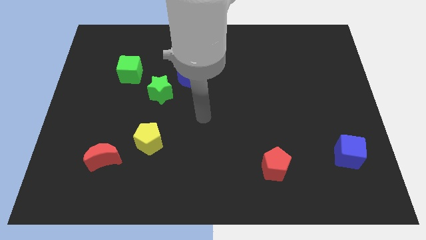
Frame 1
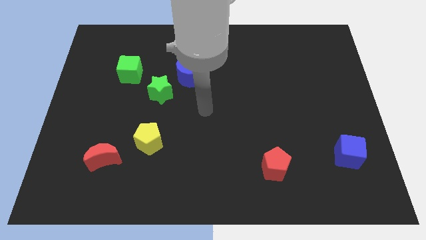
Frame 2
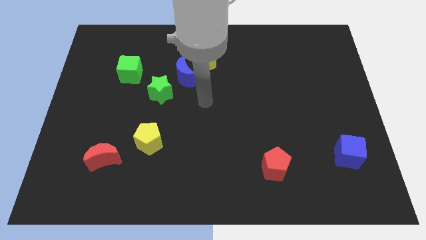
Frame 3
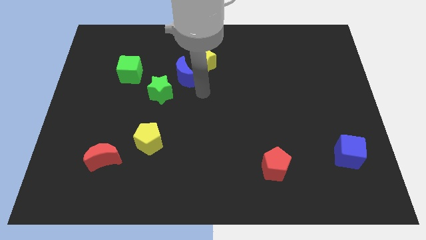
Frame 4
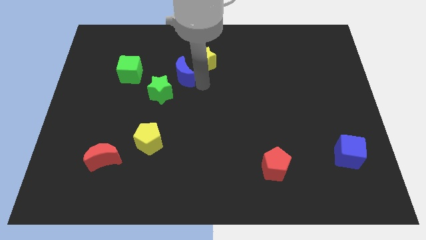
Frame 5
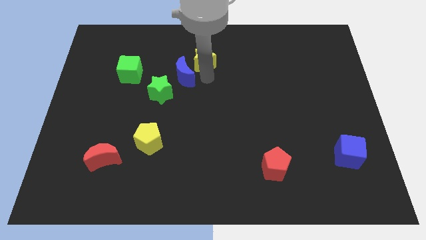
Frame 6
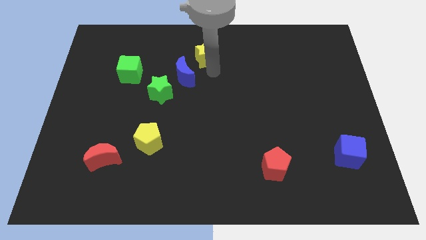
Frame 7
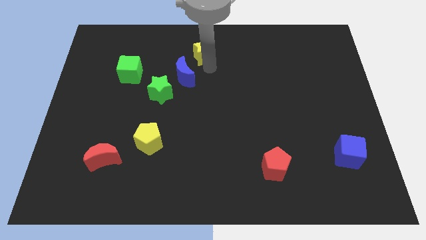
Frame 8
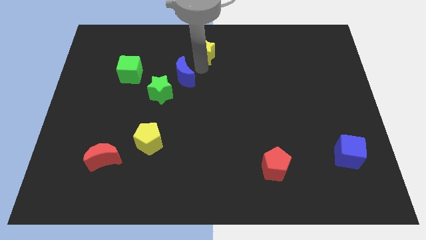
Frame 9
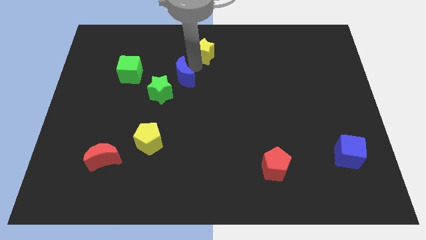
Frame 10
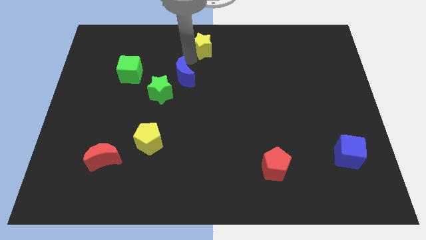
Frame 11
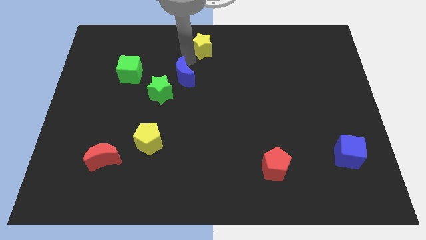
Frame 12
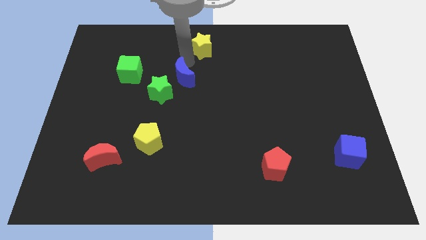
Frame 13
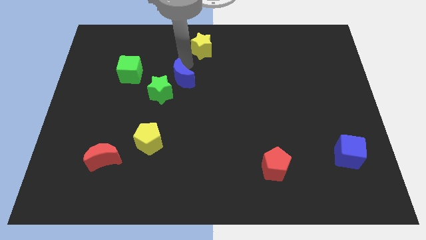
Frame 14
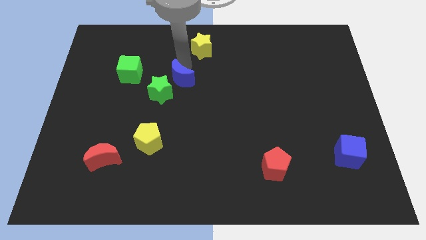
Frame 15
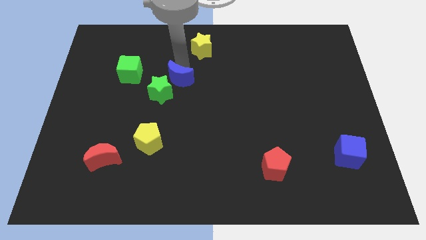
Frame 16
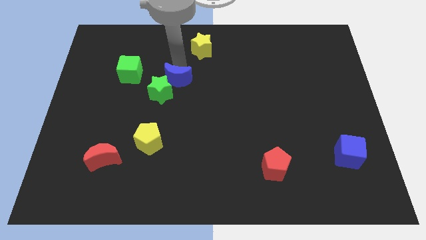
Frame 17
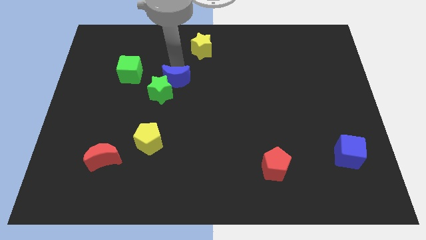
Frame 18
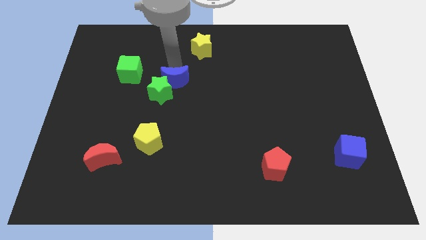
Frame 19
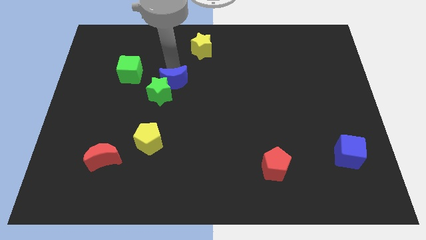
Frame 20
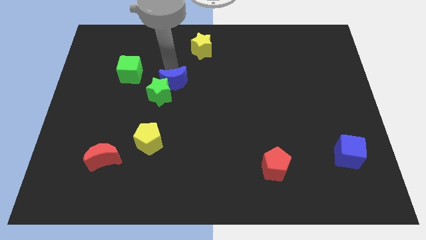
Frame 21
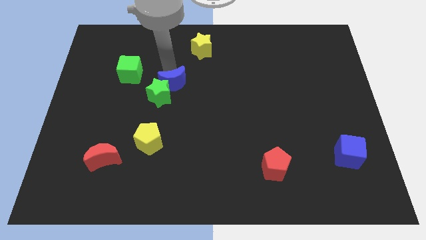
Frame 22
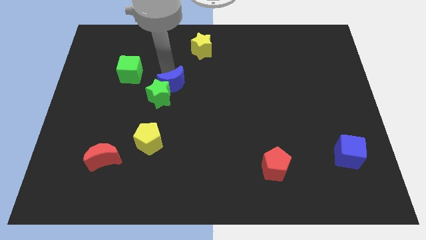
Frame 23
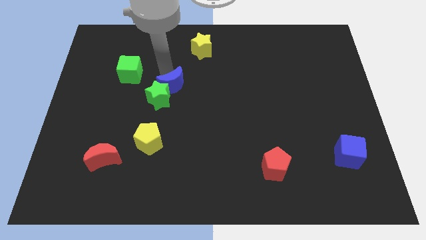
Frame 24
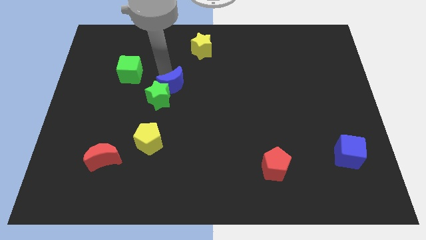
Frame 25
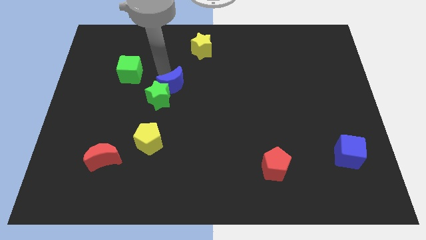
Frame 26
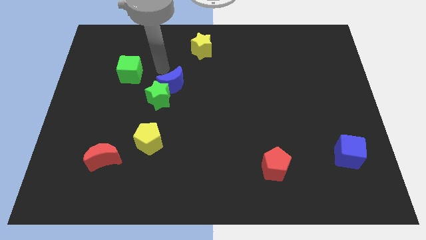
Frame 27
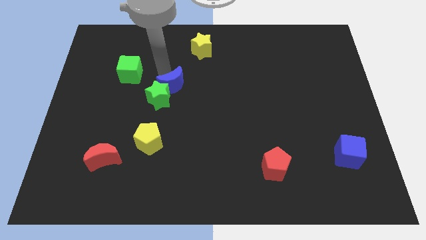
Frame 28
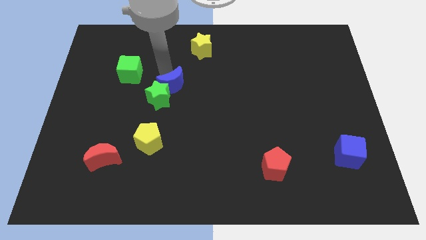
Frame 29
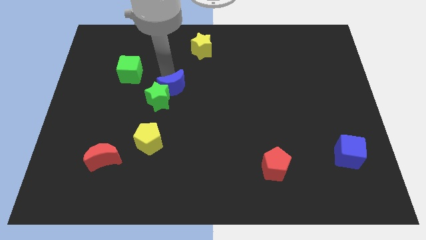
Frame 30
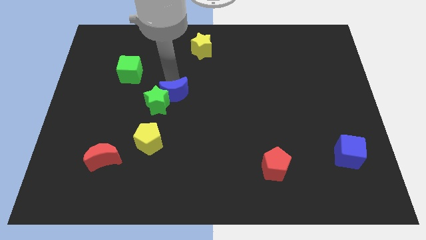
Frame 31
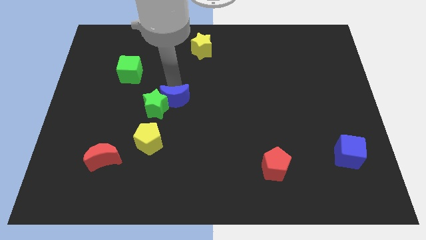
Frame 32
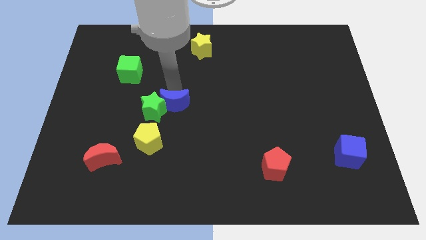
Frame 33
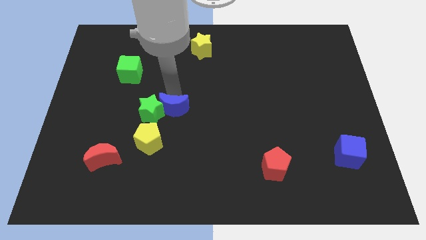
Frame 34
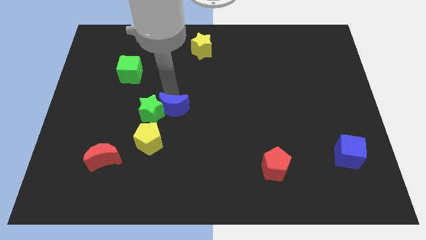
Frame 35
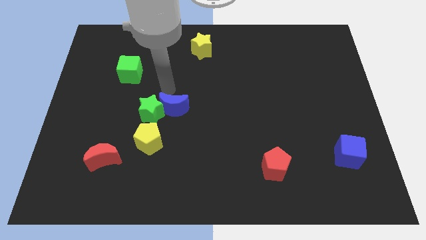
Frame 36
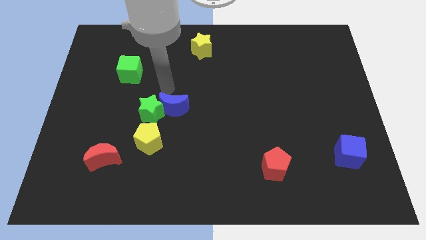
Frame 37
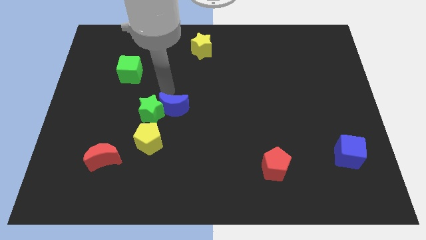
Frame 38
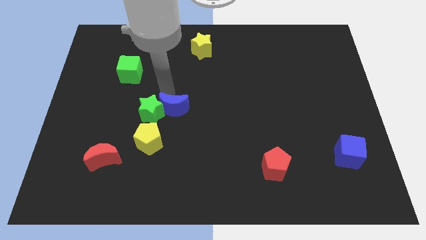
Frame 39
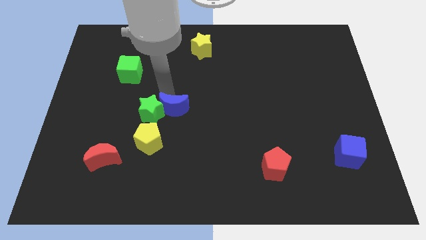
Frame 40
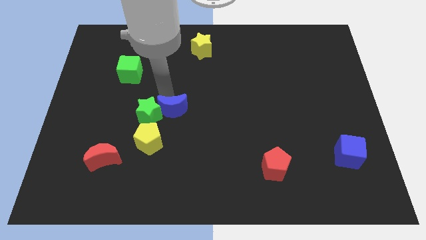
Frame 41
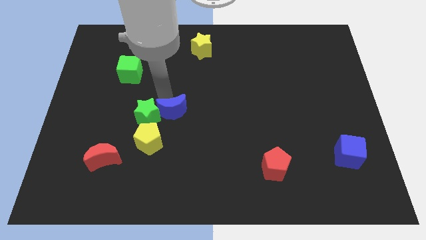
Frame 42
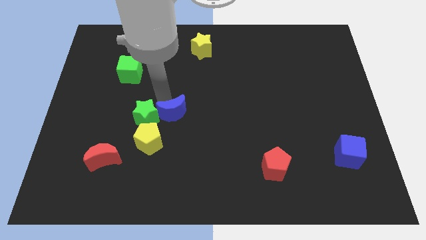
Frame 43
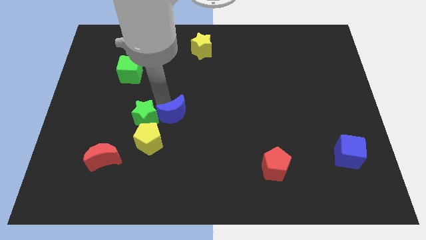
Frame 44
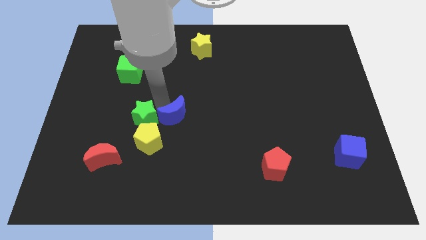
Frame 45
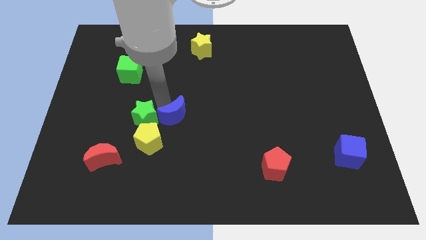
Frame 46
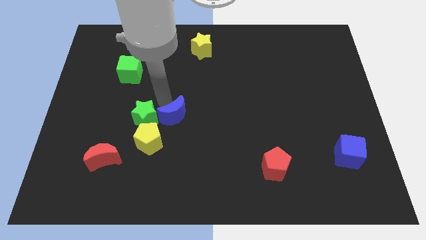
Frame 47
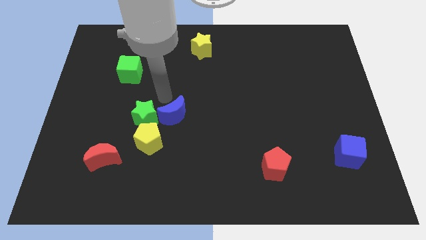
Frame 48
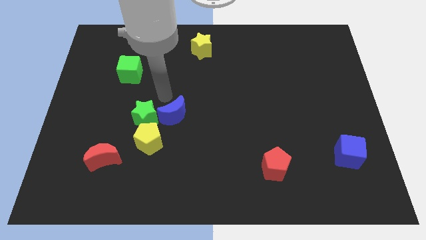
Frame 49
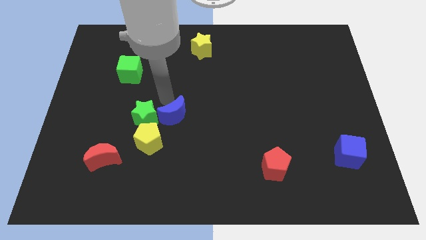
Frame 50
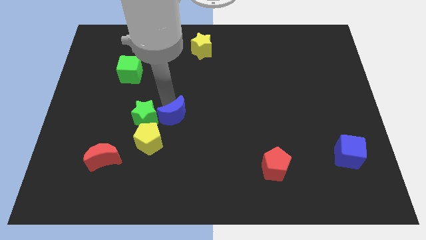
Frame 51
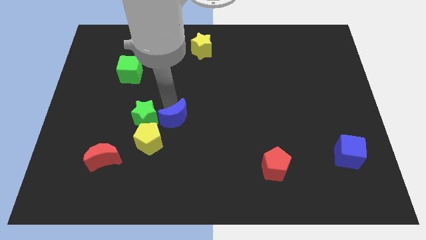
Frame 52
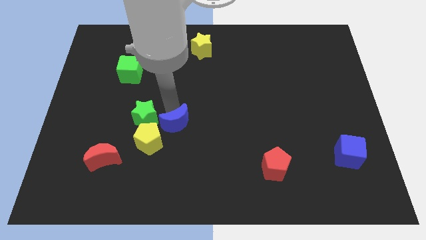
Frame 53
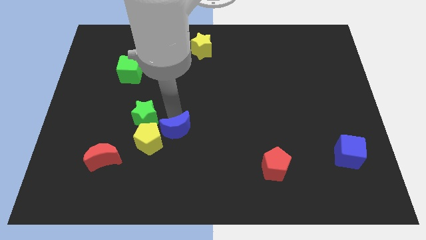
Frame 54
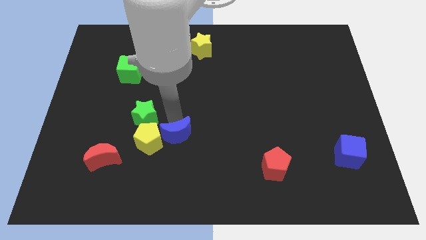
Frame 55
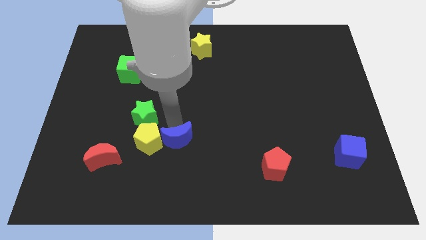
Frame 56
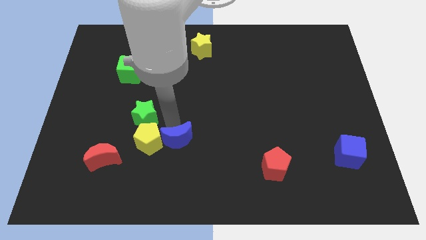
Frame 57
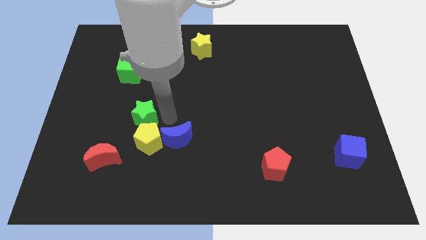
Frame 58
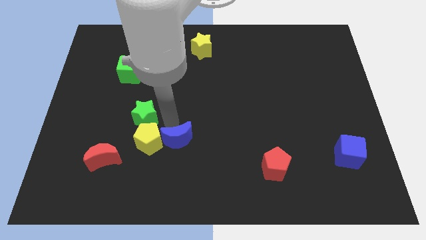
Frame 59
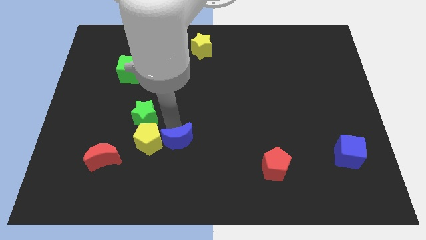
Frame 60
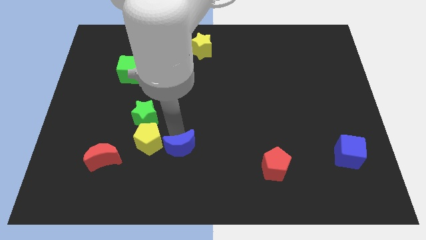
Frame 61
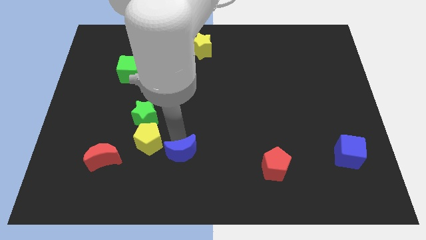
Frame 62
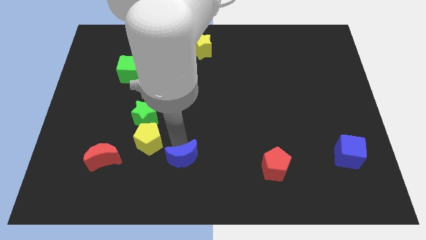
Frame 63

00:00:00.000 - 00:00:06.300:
slide the blue moon to the bottom
